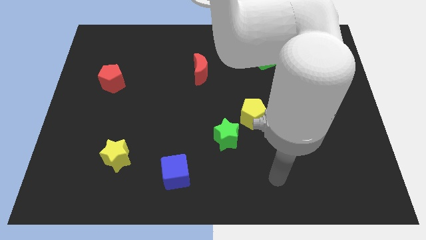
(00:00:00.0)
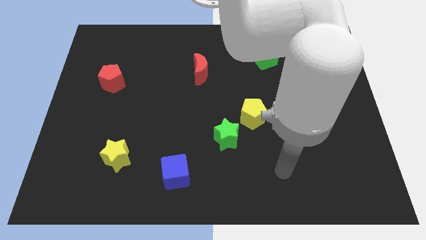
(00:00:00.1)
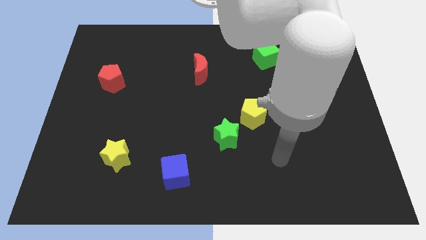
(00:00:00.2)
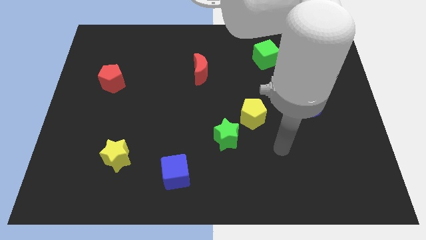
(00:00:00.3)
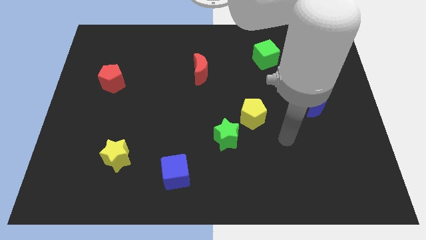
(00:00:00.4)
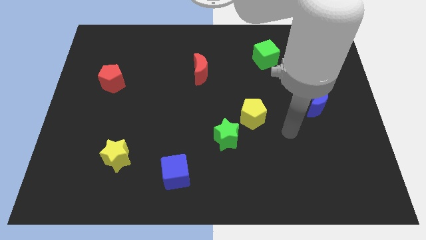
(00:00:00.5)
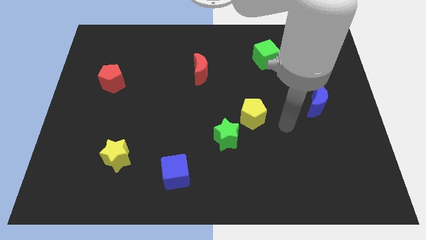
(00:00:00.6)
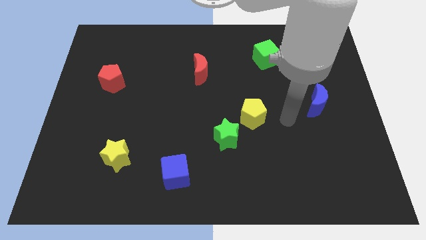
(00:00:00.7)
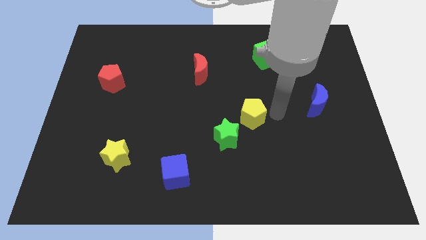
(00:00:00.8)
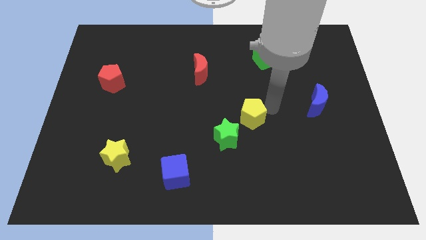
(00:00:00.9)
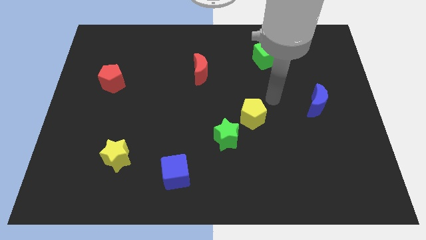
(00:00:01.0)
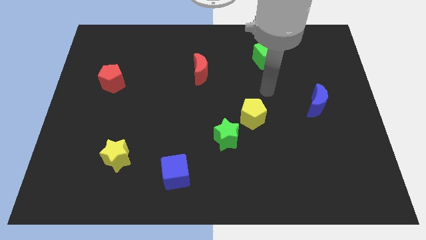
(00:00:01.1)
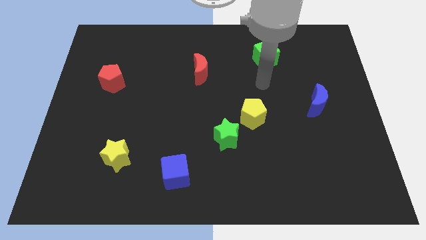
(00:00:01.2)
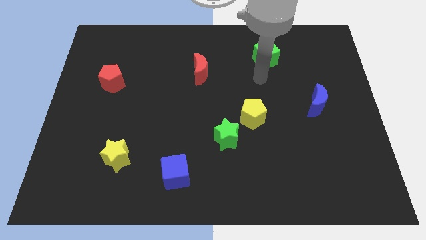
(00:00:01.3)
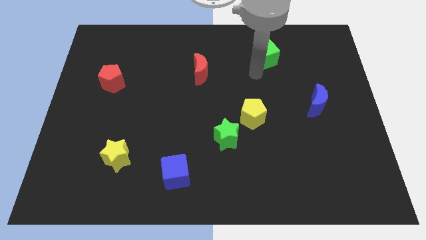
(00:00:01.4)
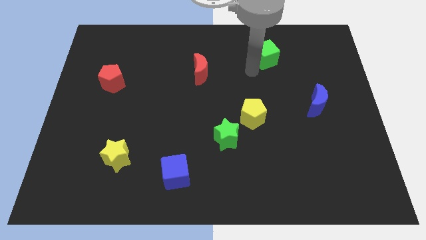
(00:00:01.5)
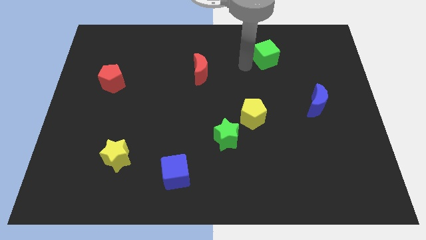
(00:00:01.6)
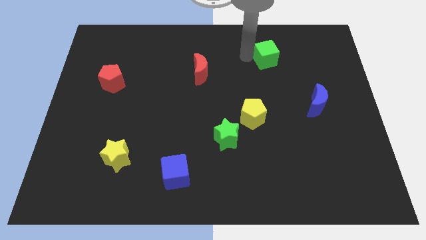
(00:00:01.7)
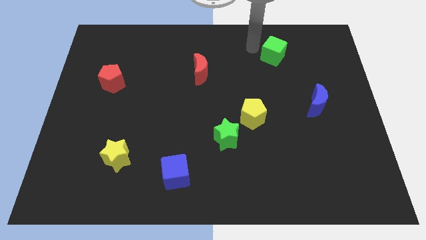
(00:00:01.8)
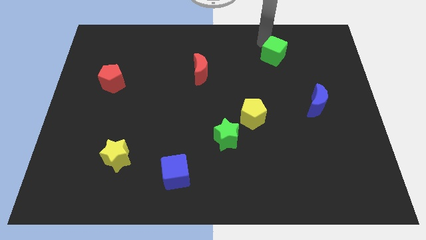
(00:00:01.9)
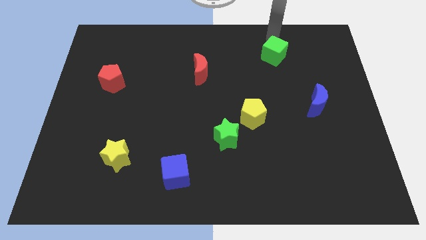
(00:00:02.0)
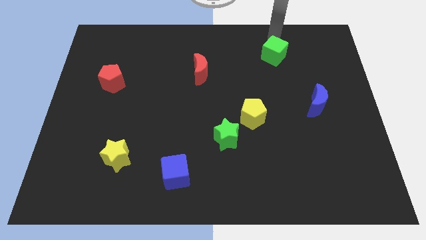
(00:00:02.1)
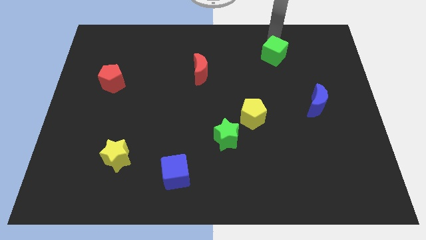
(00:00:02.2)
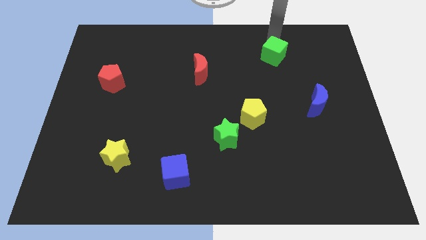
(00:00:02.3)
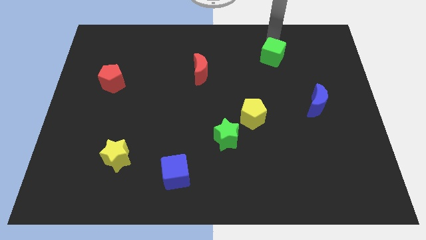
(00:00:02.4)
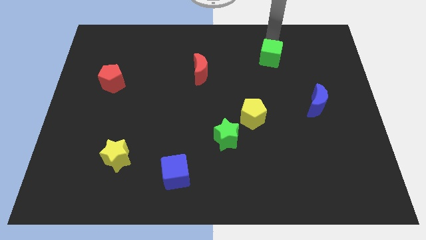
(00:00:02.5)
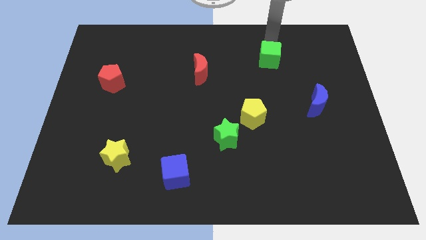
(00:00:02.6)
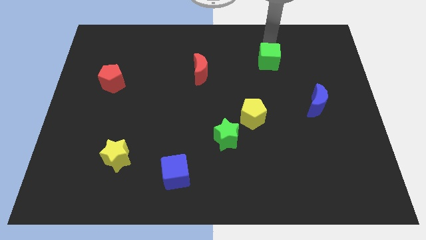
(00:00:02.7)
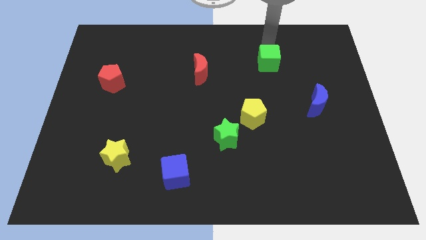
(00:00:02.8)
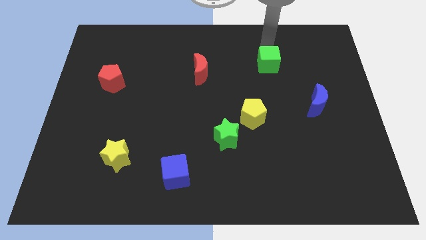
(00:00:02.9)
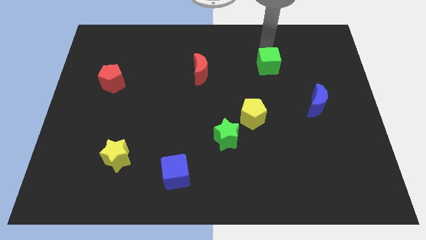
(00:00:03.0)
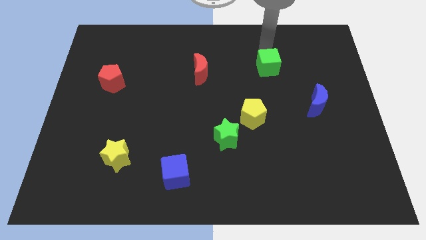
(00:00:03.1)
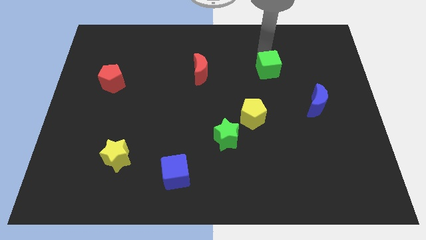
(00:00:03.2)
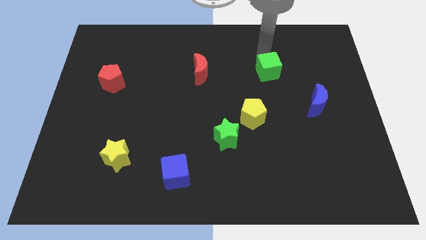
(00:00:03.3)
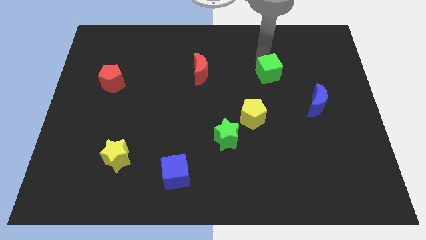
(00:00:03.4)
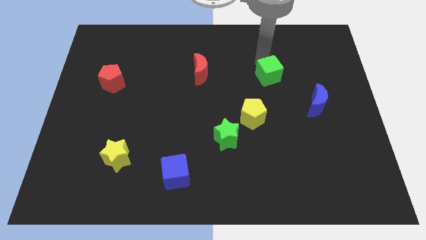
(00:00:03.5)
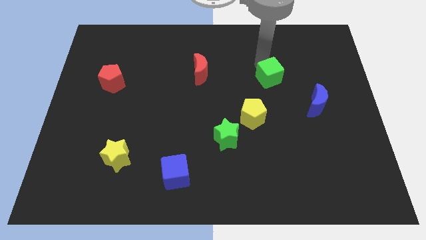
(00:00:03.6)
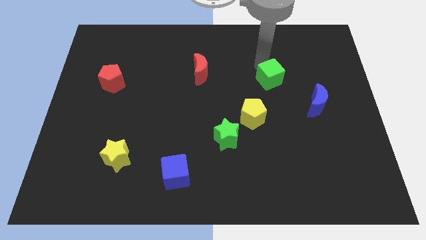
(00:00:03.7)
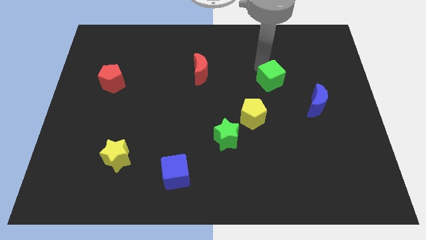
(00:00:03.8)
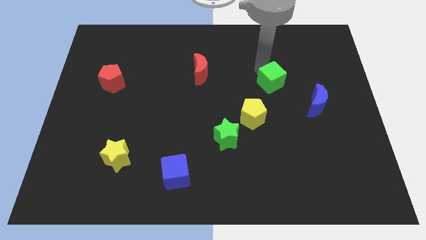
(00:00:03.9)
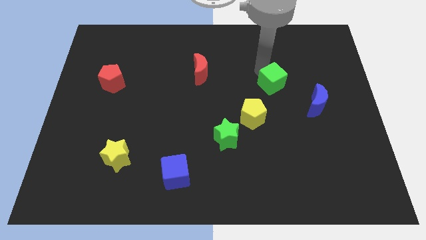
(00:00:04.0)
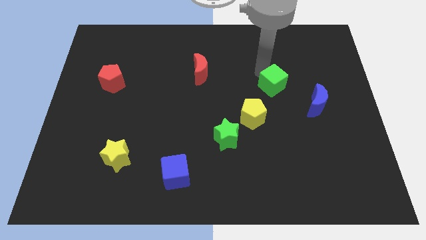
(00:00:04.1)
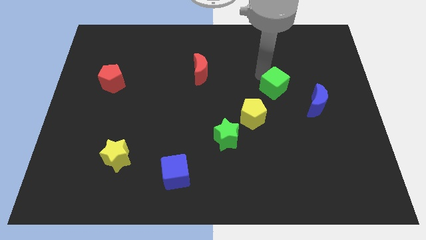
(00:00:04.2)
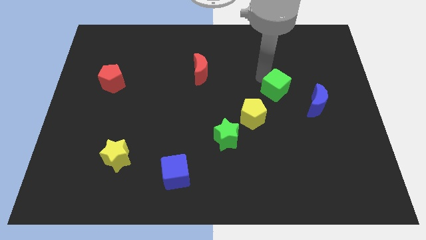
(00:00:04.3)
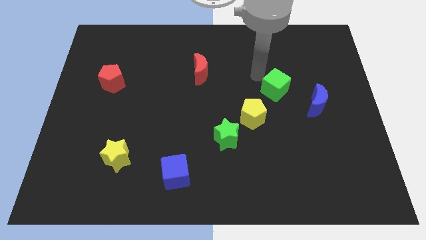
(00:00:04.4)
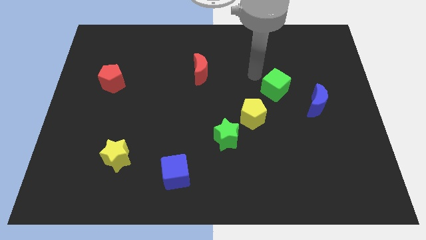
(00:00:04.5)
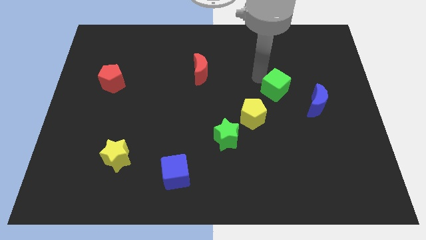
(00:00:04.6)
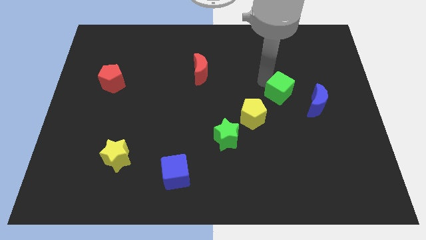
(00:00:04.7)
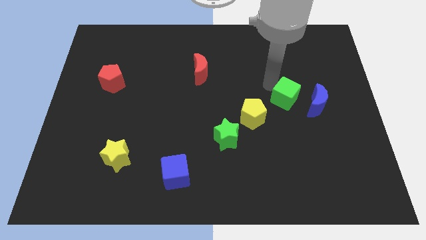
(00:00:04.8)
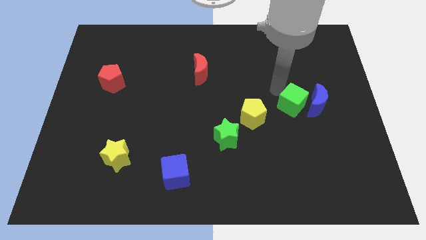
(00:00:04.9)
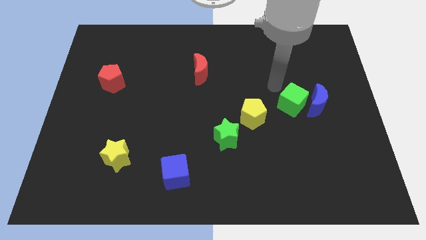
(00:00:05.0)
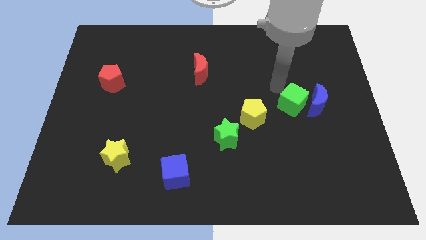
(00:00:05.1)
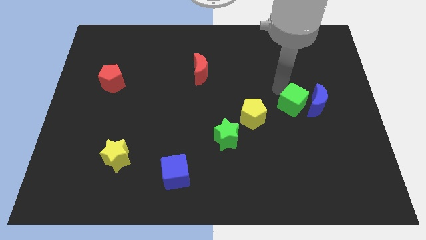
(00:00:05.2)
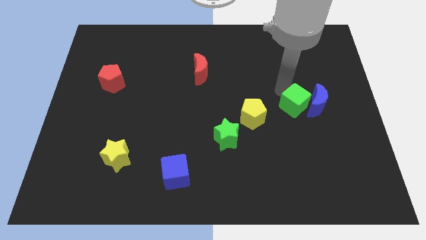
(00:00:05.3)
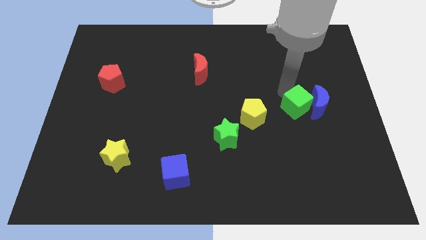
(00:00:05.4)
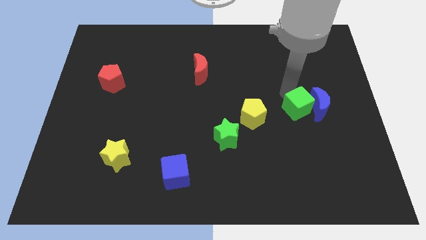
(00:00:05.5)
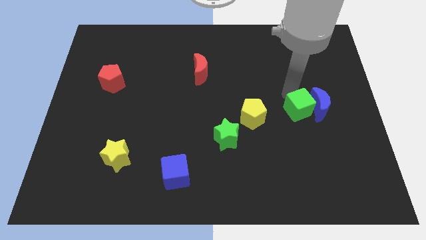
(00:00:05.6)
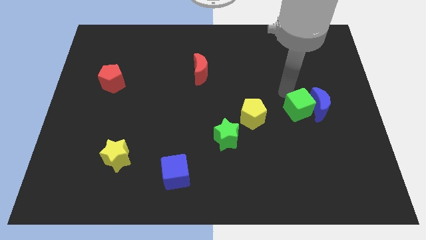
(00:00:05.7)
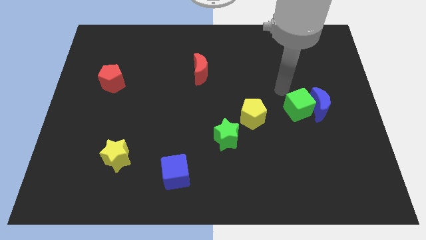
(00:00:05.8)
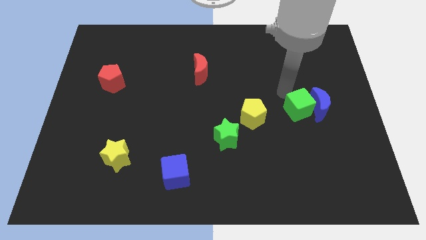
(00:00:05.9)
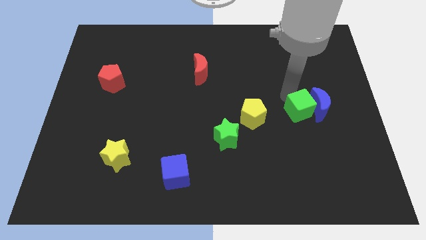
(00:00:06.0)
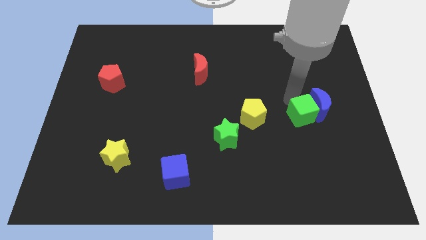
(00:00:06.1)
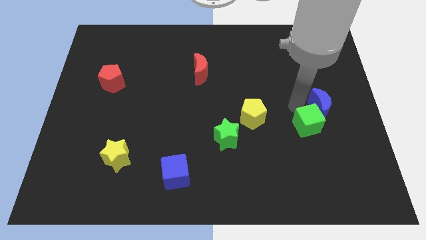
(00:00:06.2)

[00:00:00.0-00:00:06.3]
move the green cube below the blue moon

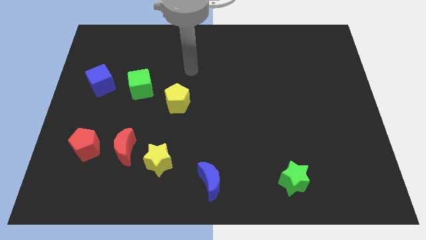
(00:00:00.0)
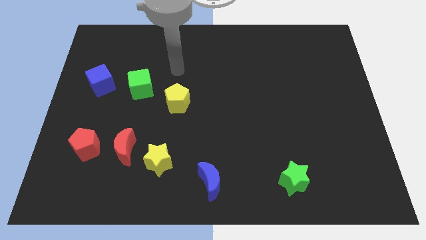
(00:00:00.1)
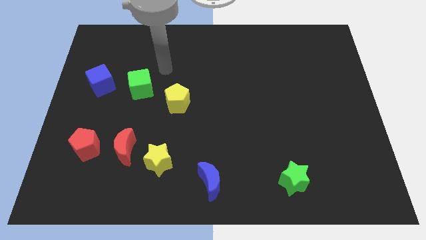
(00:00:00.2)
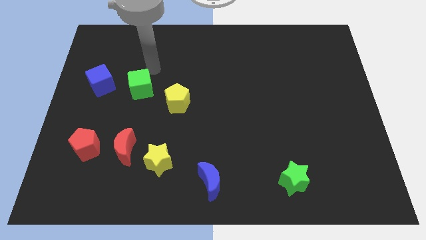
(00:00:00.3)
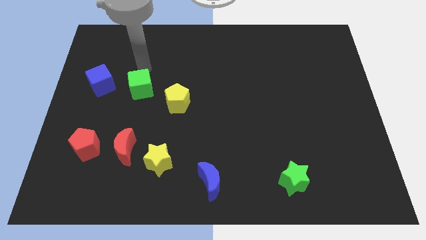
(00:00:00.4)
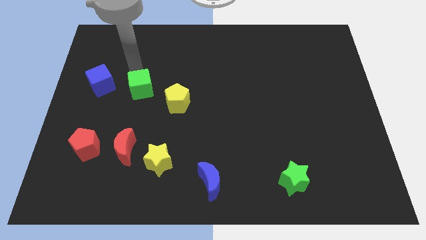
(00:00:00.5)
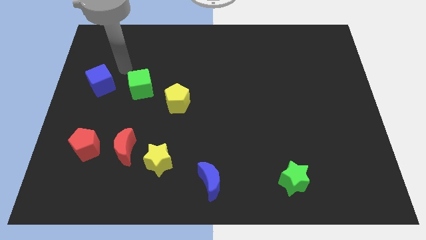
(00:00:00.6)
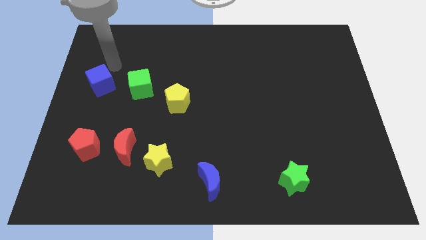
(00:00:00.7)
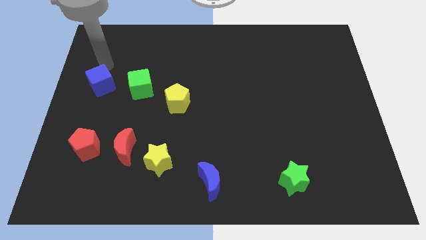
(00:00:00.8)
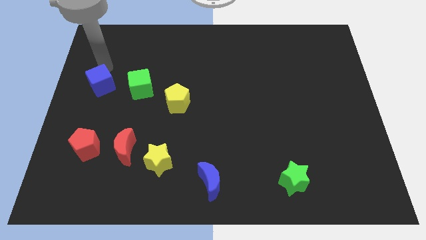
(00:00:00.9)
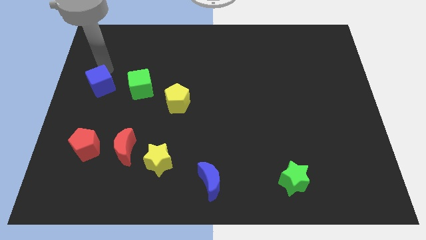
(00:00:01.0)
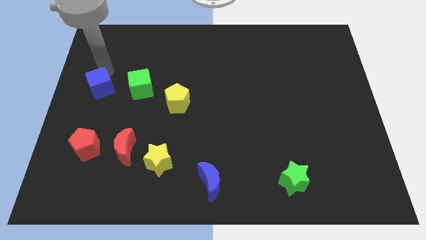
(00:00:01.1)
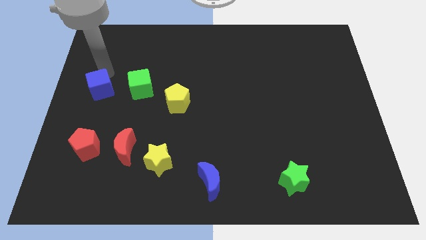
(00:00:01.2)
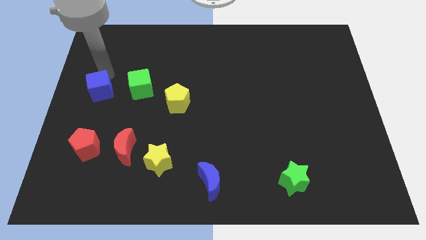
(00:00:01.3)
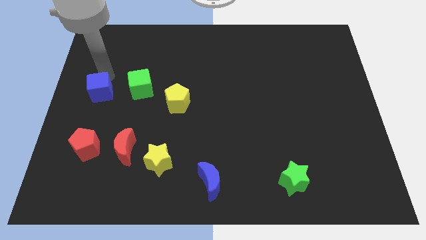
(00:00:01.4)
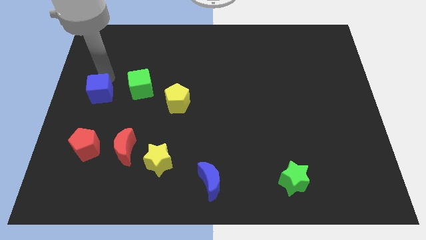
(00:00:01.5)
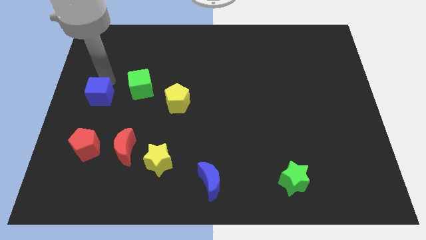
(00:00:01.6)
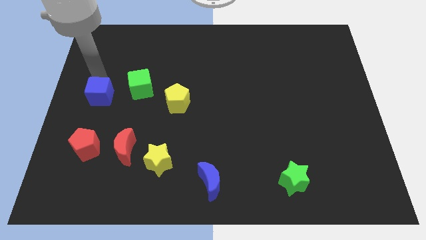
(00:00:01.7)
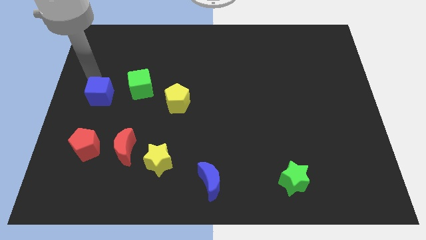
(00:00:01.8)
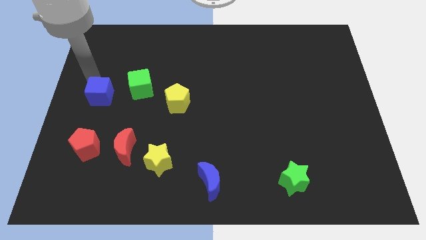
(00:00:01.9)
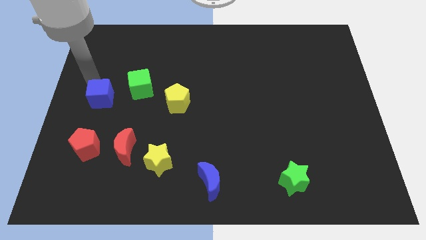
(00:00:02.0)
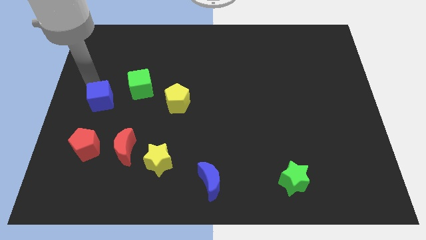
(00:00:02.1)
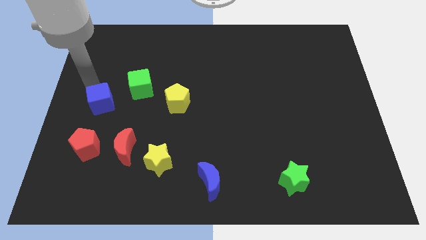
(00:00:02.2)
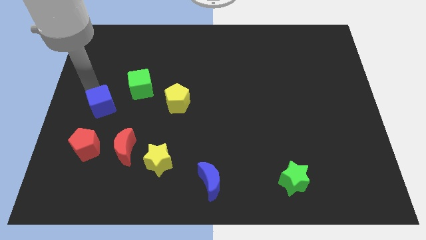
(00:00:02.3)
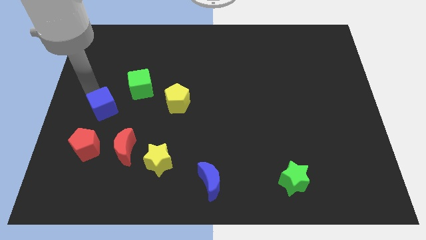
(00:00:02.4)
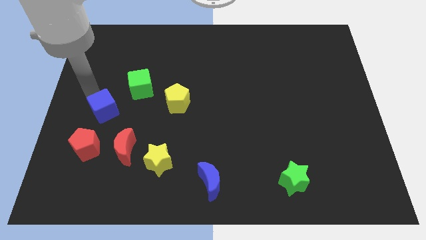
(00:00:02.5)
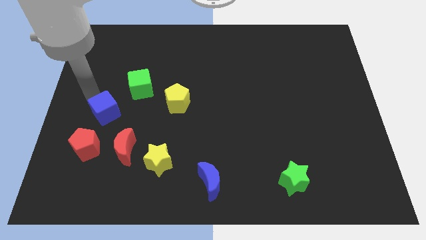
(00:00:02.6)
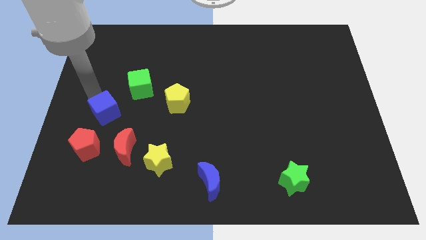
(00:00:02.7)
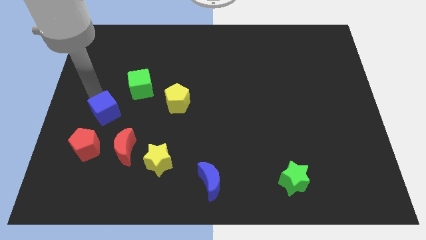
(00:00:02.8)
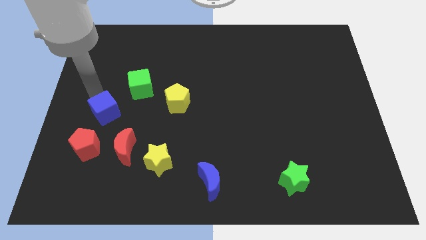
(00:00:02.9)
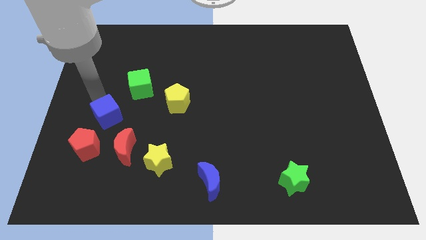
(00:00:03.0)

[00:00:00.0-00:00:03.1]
move the blue cube diagonally up and to the right of the red pentagon
